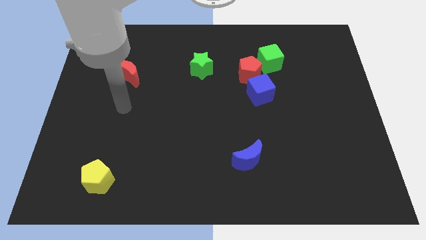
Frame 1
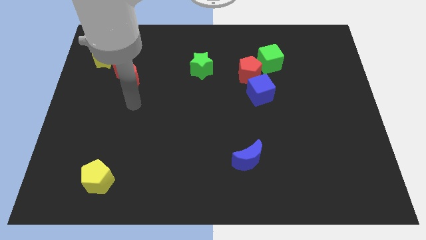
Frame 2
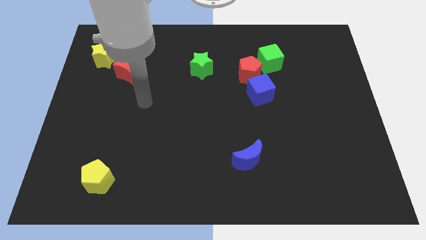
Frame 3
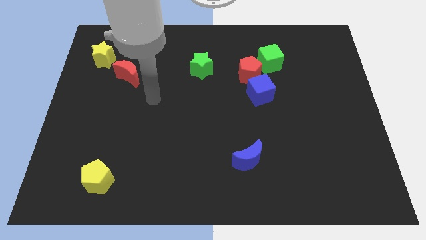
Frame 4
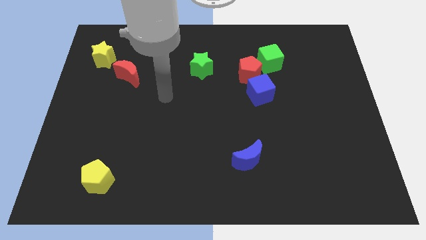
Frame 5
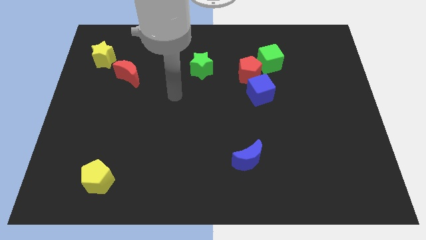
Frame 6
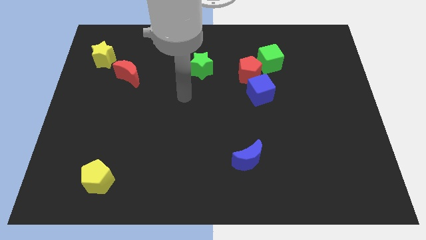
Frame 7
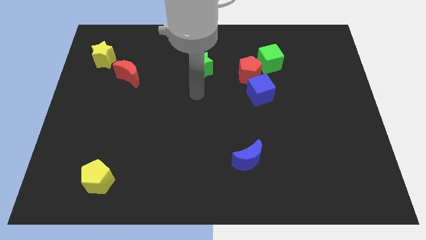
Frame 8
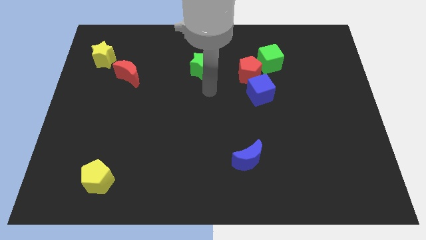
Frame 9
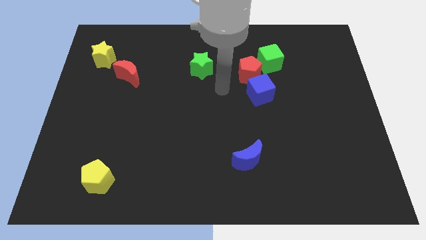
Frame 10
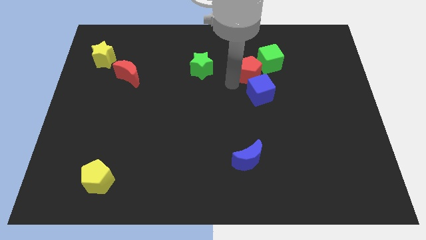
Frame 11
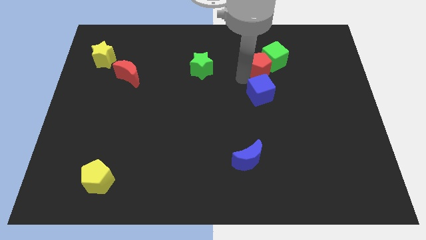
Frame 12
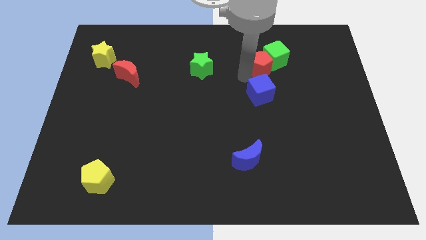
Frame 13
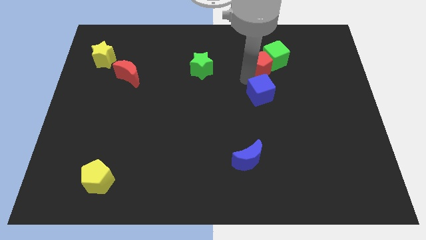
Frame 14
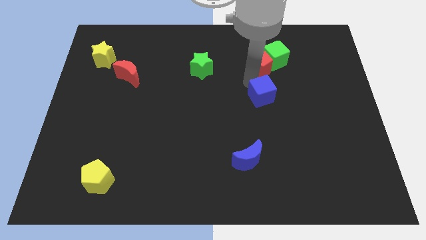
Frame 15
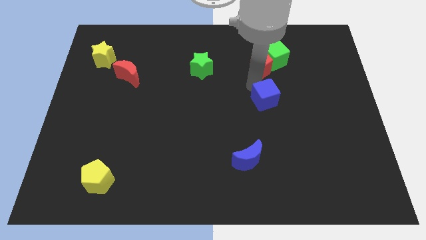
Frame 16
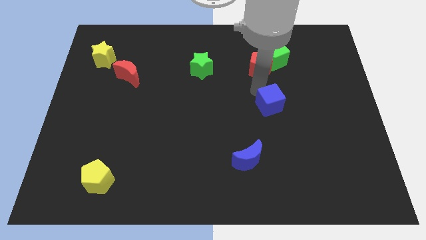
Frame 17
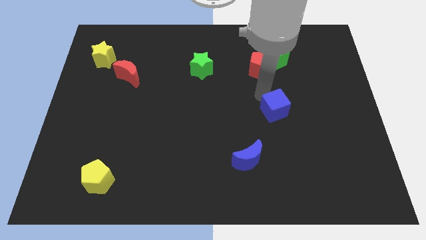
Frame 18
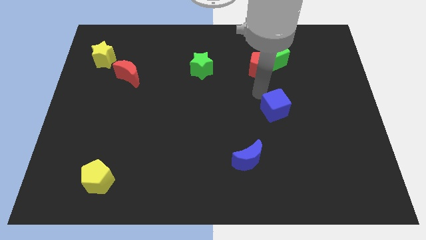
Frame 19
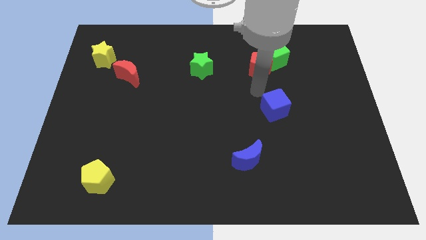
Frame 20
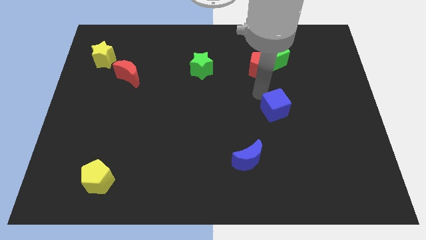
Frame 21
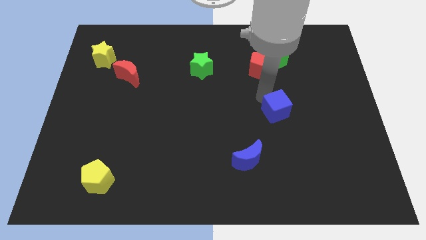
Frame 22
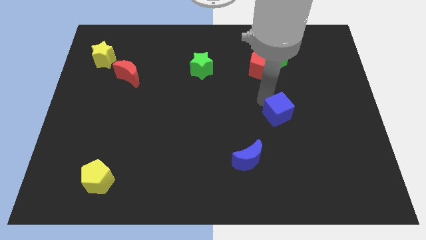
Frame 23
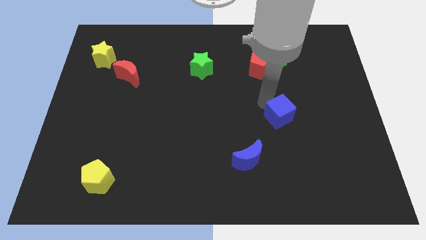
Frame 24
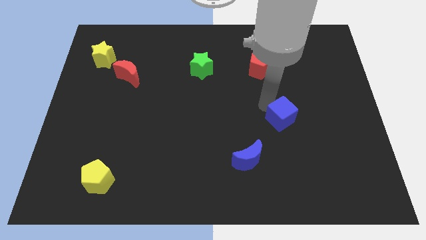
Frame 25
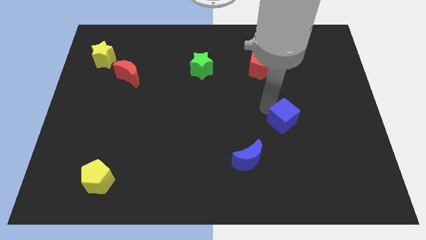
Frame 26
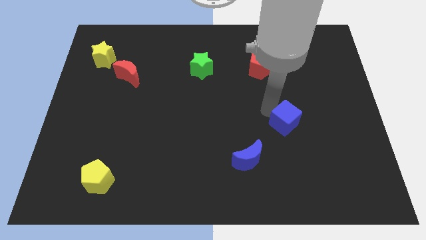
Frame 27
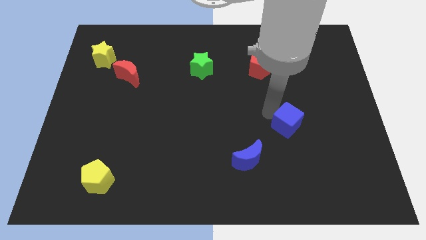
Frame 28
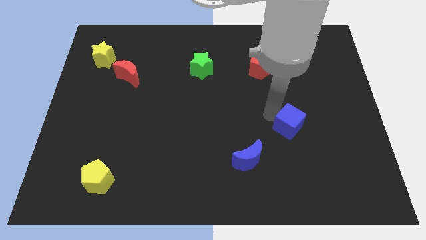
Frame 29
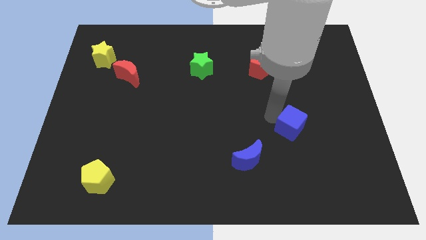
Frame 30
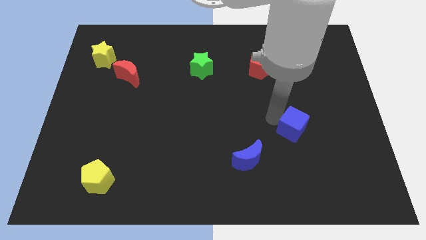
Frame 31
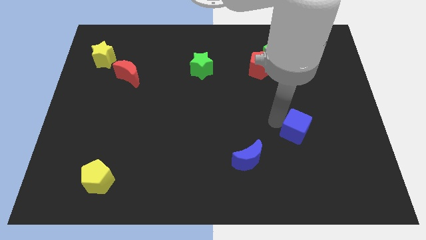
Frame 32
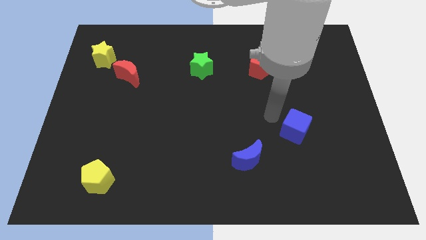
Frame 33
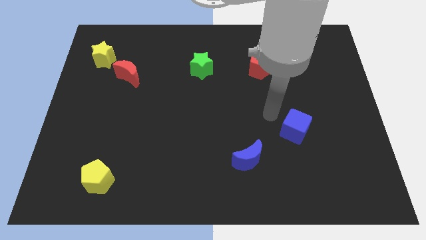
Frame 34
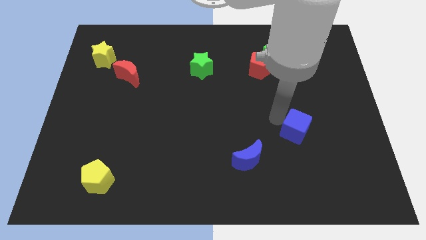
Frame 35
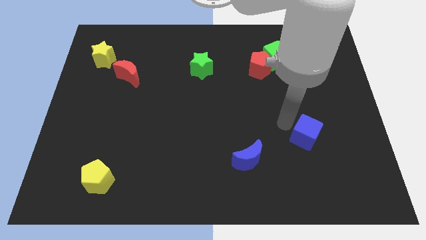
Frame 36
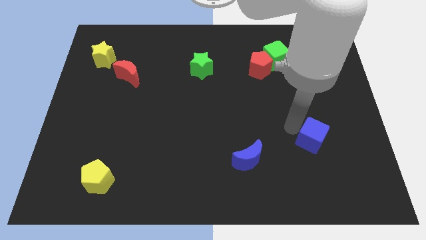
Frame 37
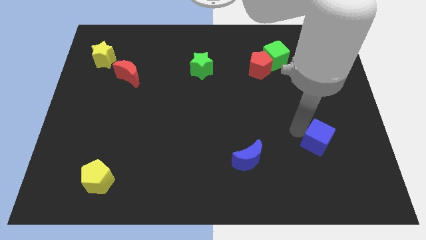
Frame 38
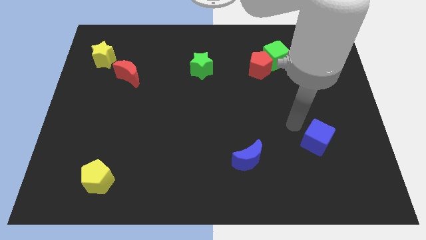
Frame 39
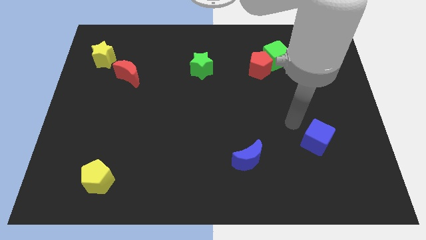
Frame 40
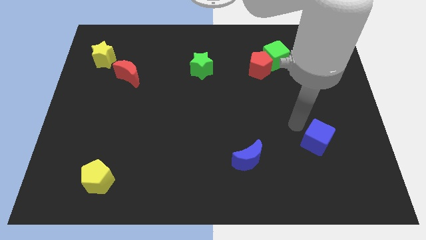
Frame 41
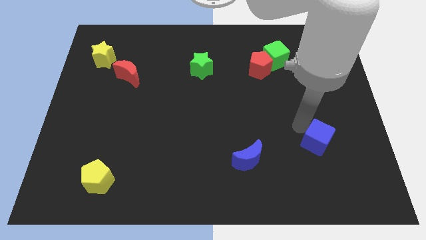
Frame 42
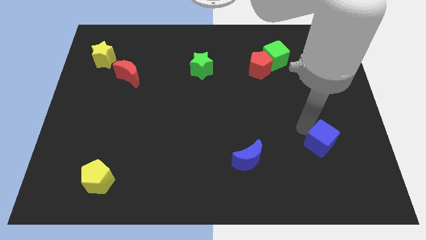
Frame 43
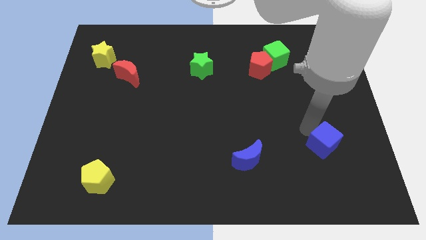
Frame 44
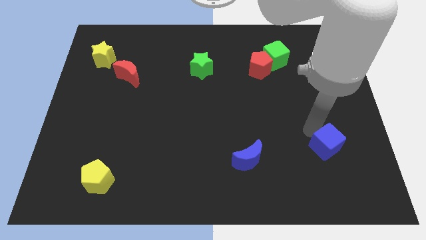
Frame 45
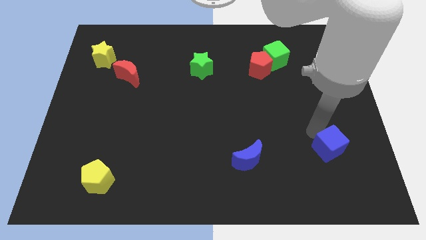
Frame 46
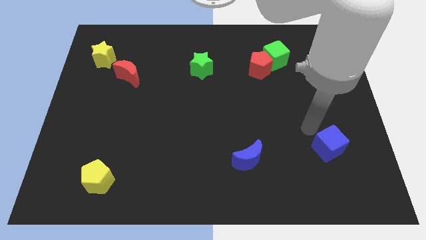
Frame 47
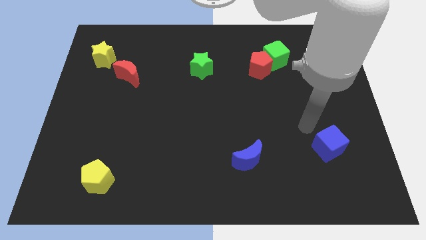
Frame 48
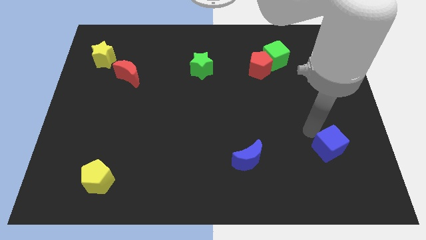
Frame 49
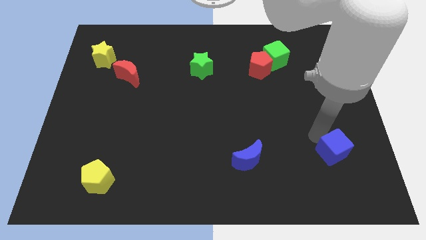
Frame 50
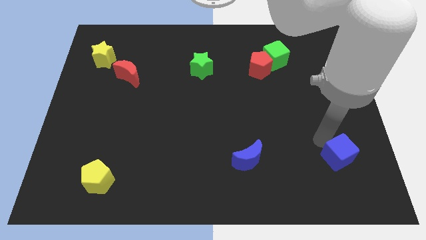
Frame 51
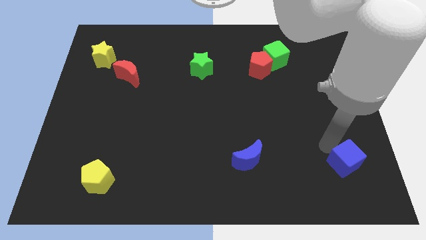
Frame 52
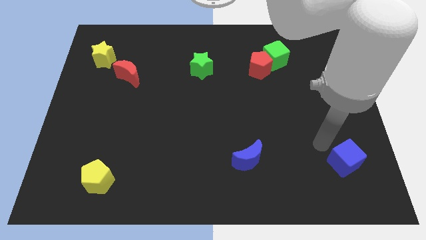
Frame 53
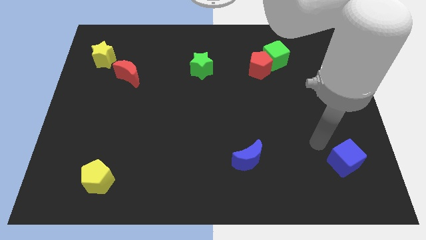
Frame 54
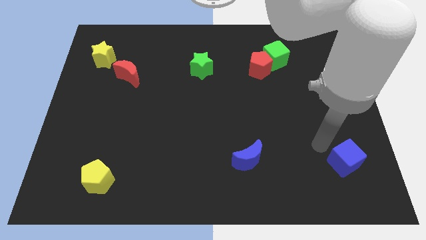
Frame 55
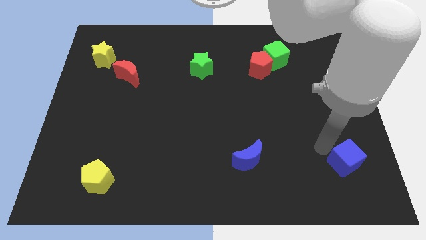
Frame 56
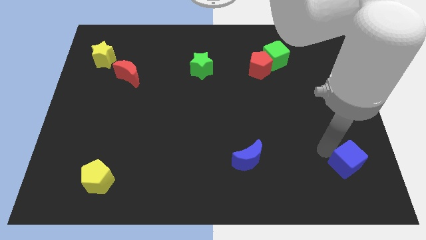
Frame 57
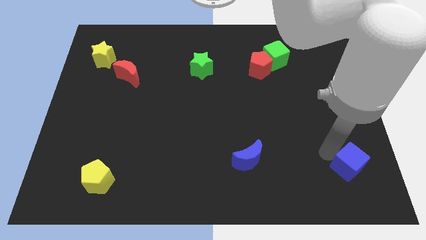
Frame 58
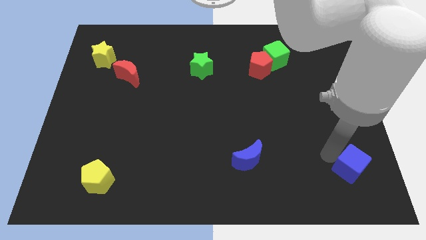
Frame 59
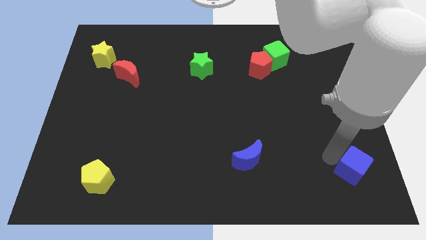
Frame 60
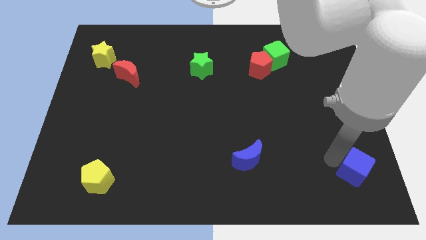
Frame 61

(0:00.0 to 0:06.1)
push the blue cube to the bottom right
